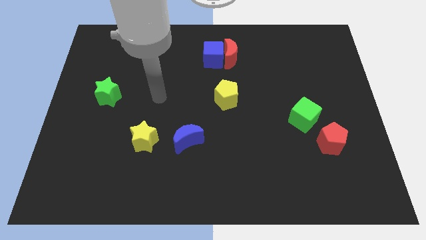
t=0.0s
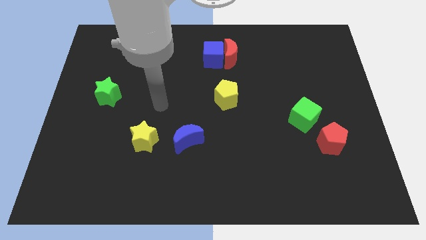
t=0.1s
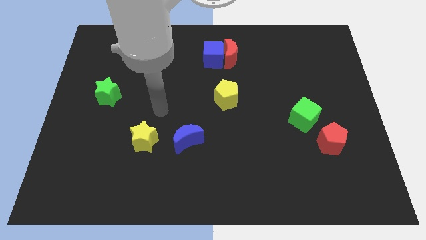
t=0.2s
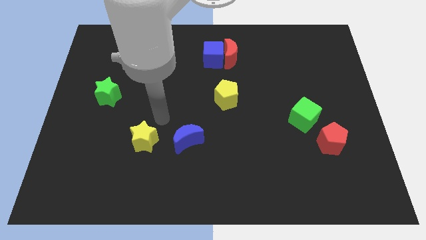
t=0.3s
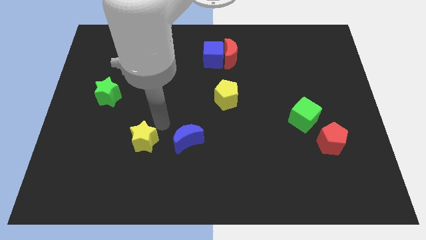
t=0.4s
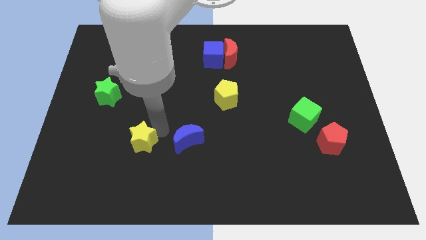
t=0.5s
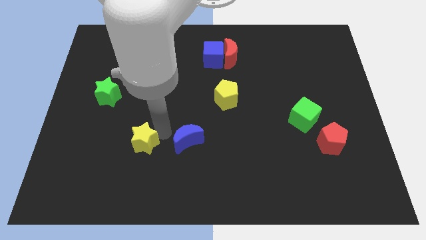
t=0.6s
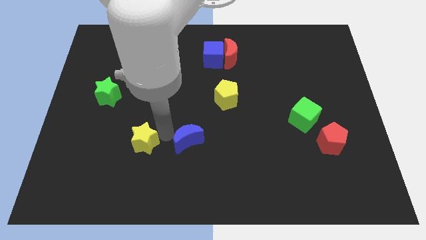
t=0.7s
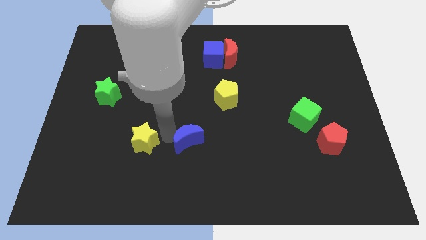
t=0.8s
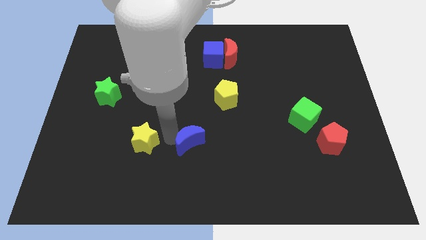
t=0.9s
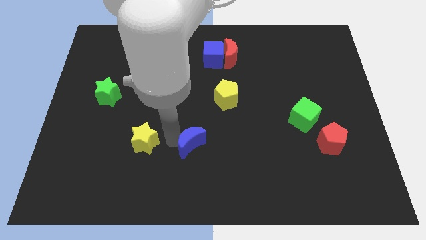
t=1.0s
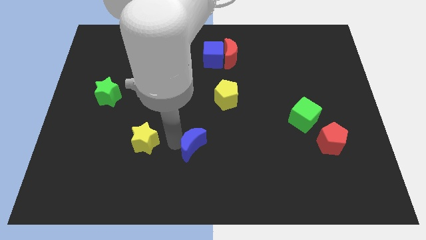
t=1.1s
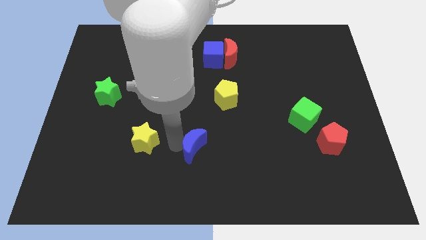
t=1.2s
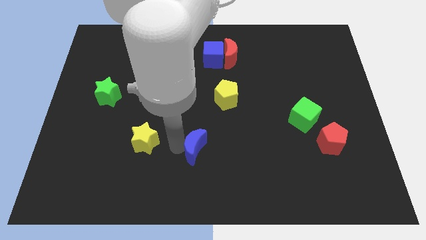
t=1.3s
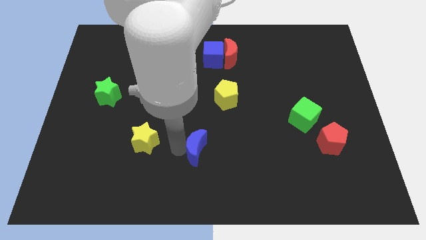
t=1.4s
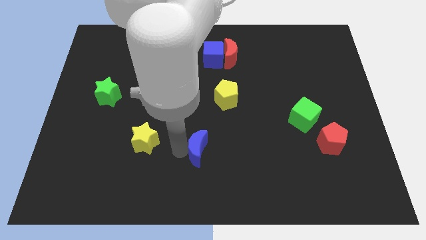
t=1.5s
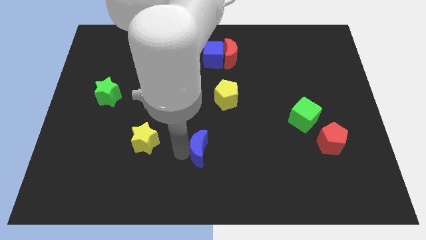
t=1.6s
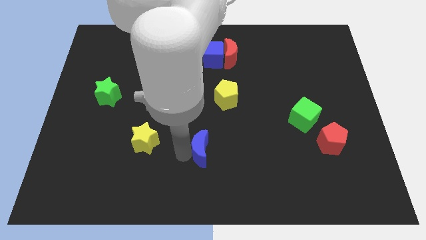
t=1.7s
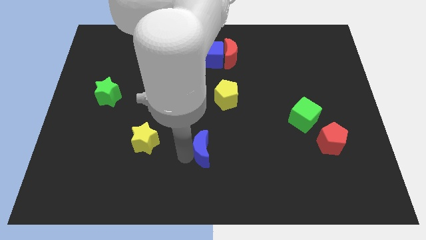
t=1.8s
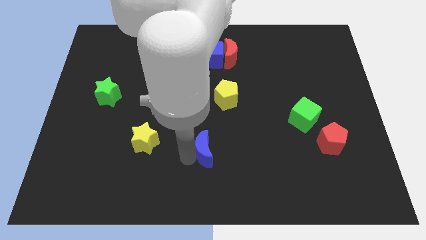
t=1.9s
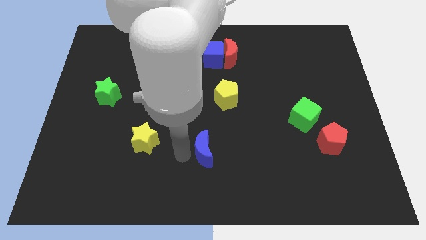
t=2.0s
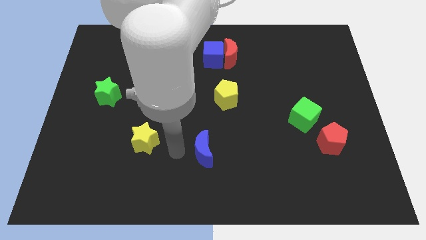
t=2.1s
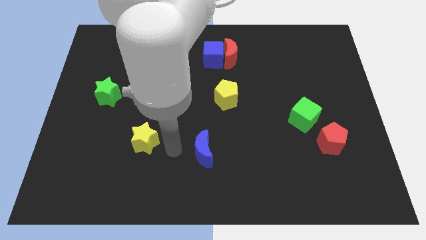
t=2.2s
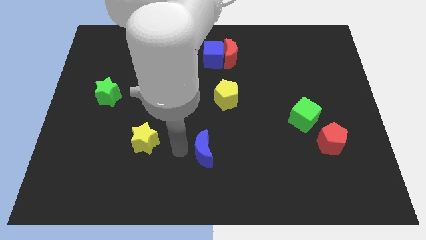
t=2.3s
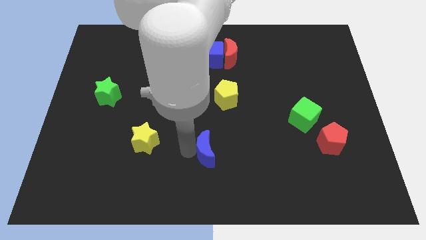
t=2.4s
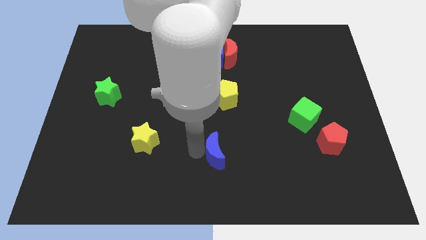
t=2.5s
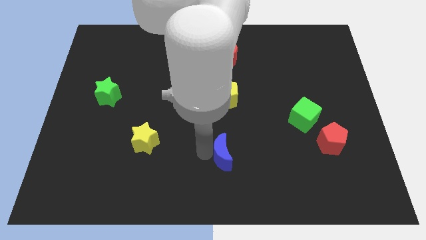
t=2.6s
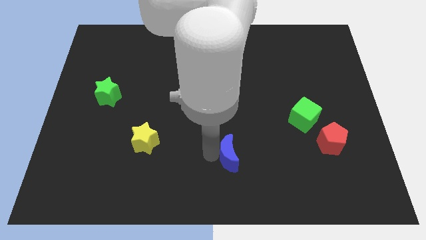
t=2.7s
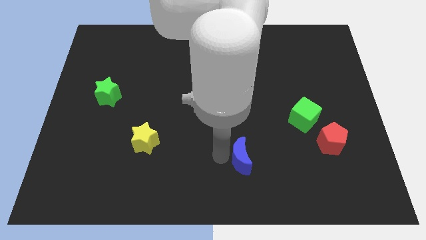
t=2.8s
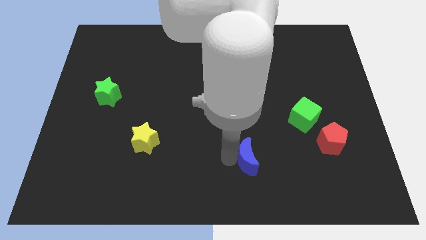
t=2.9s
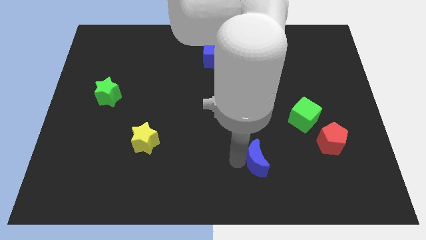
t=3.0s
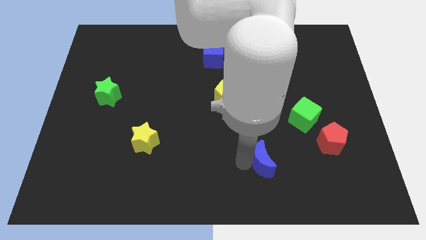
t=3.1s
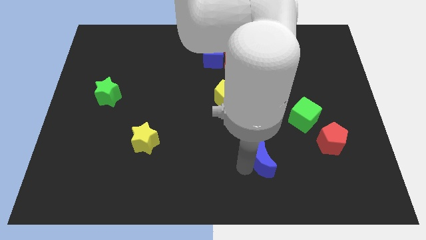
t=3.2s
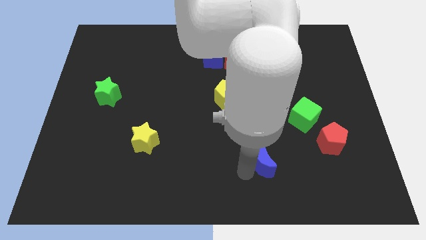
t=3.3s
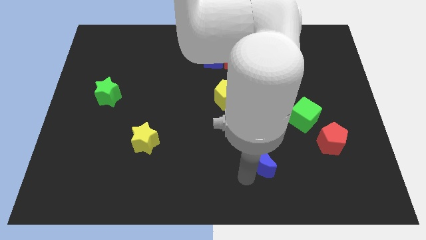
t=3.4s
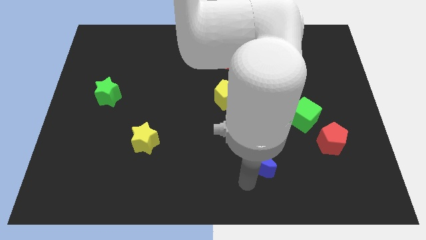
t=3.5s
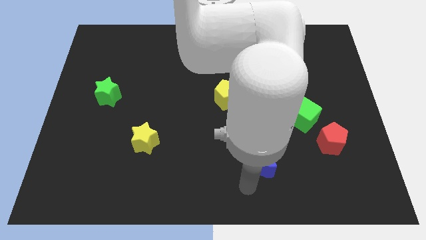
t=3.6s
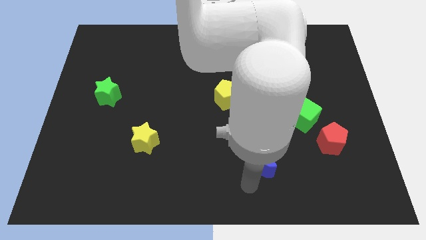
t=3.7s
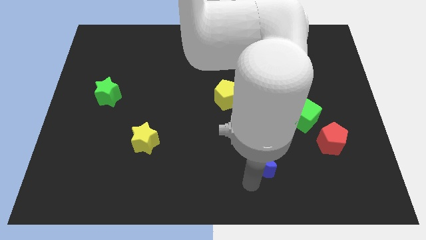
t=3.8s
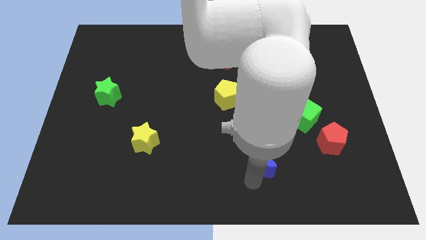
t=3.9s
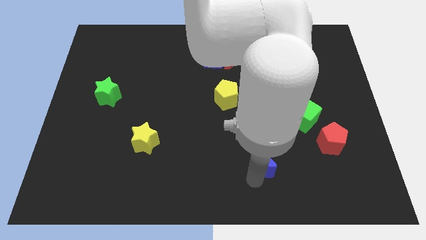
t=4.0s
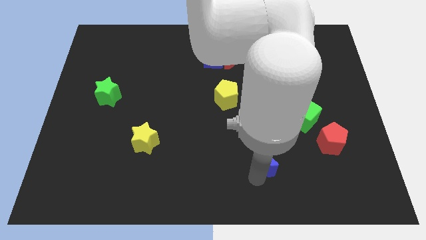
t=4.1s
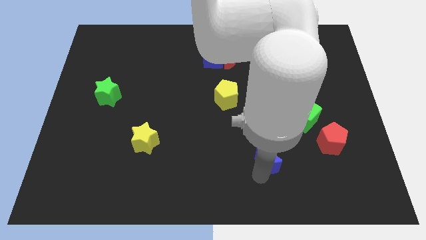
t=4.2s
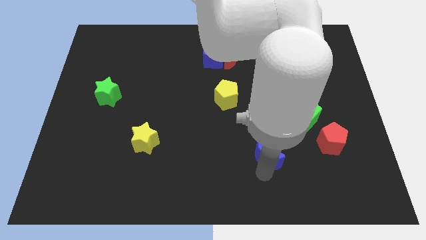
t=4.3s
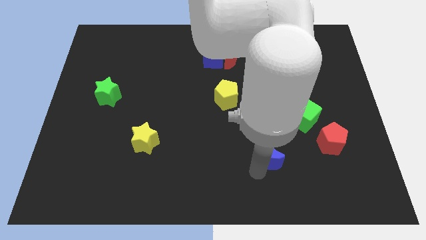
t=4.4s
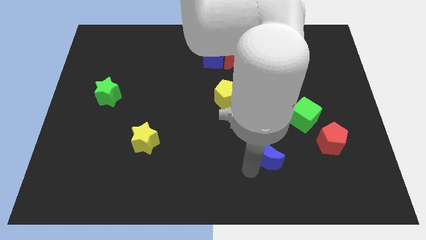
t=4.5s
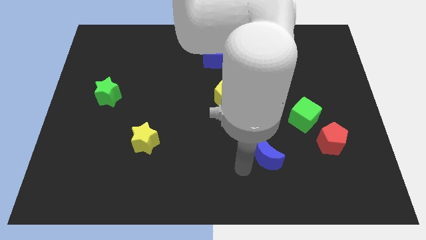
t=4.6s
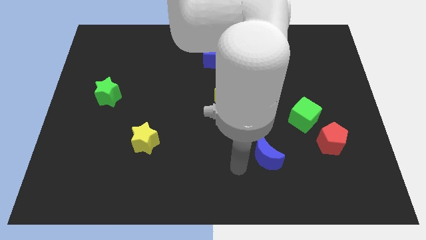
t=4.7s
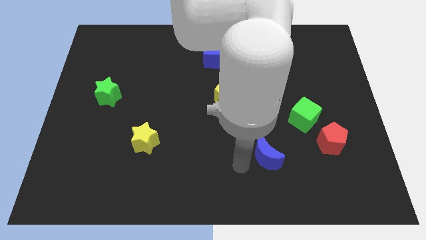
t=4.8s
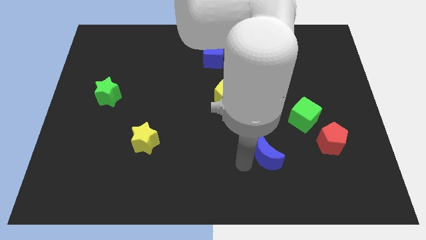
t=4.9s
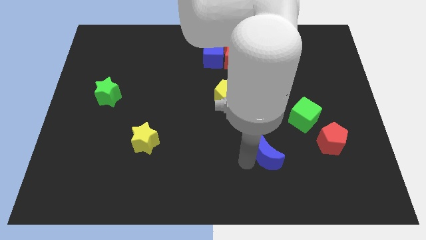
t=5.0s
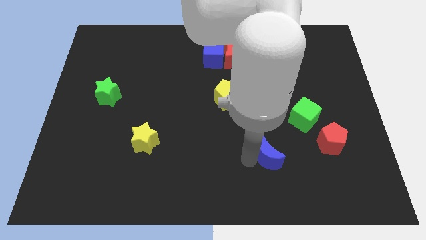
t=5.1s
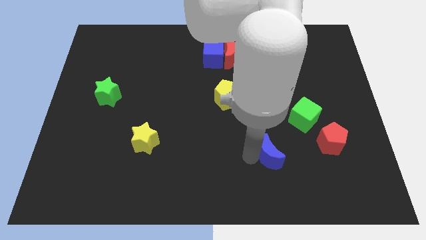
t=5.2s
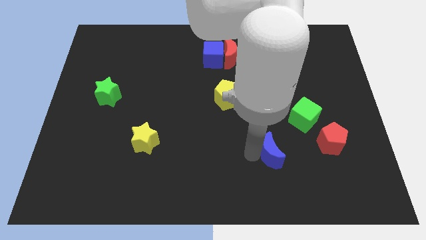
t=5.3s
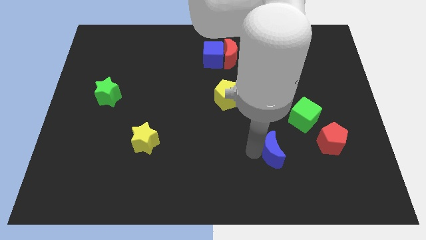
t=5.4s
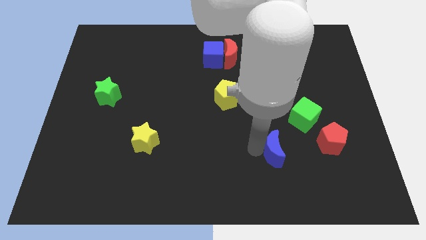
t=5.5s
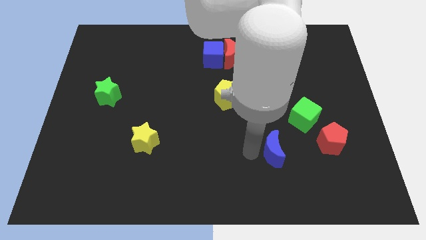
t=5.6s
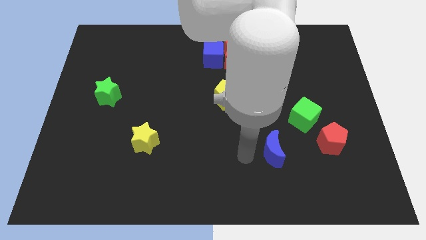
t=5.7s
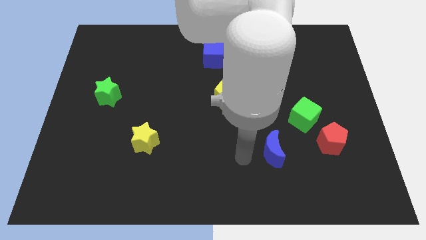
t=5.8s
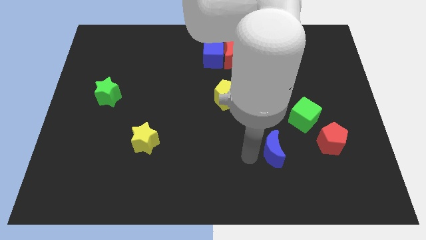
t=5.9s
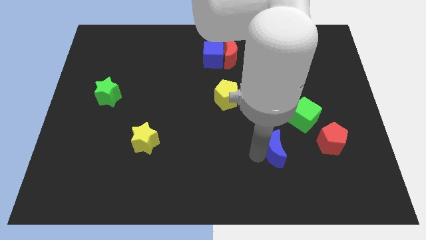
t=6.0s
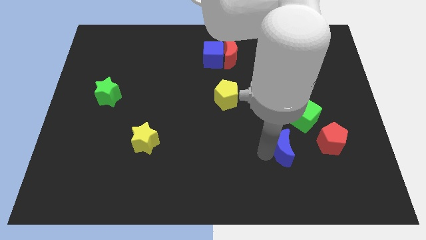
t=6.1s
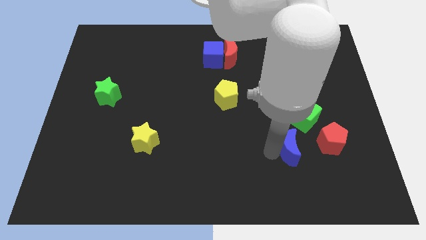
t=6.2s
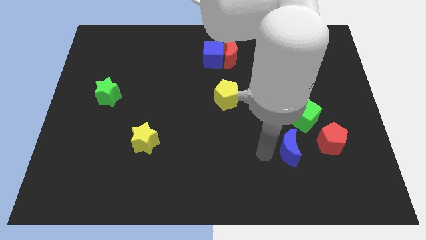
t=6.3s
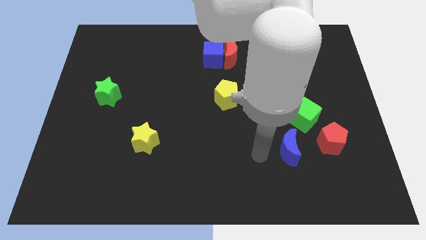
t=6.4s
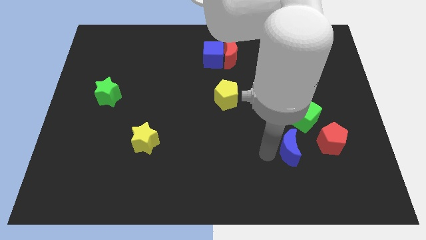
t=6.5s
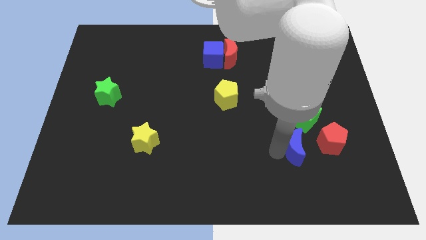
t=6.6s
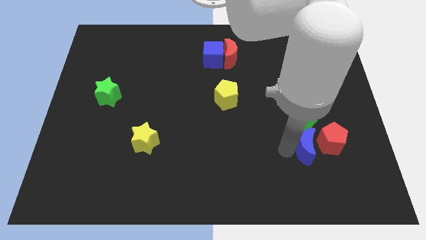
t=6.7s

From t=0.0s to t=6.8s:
push the blue moon to the red pentagon
